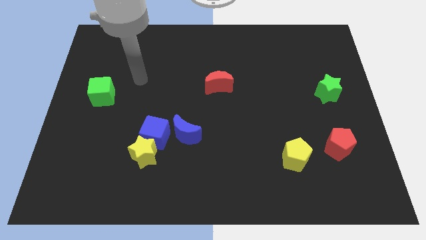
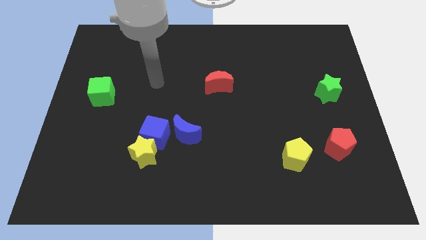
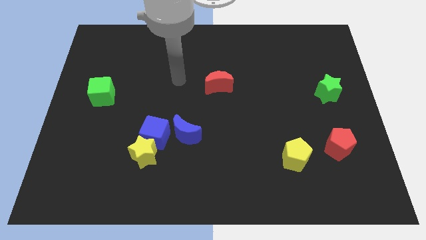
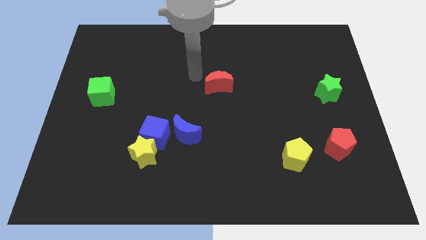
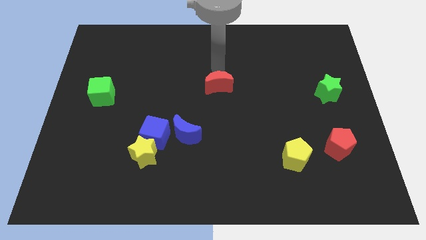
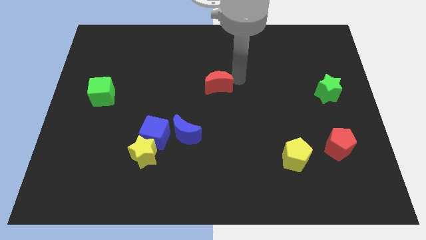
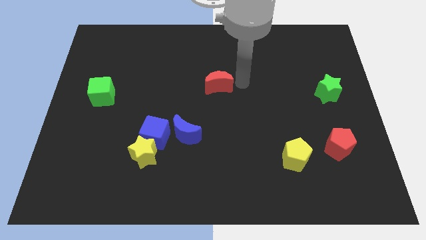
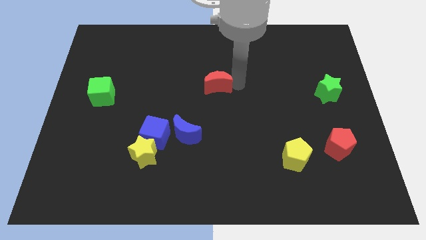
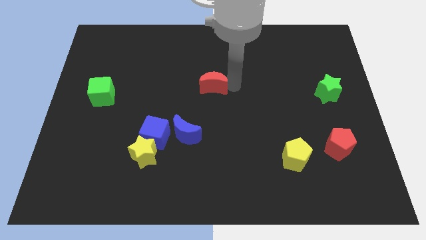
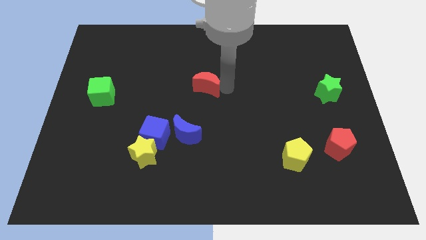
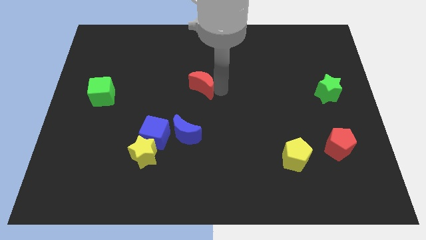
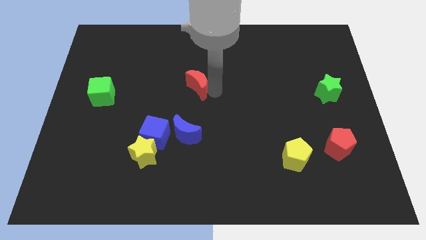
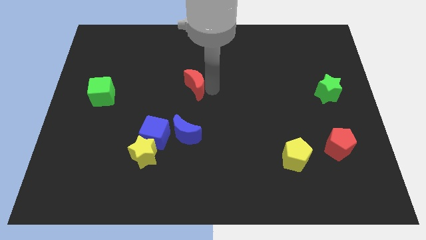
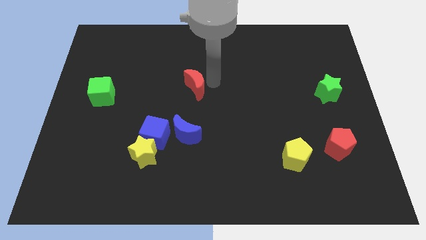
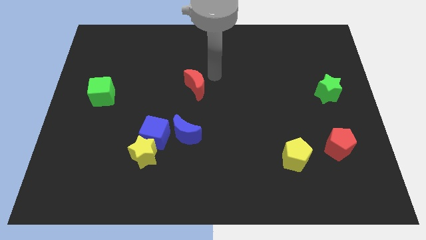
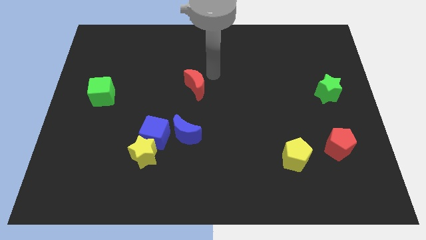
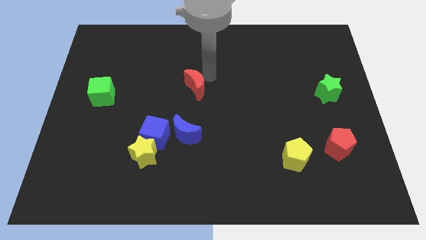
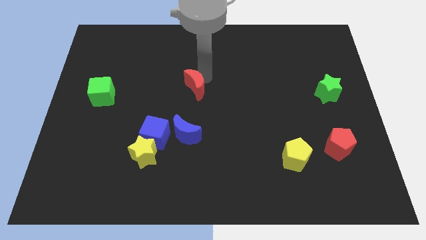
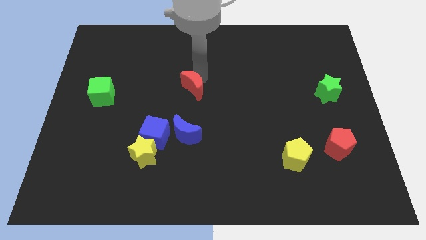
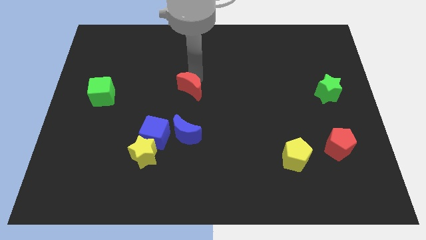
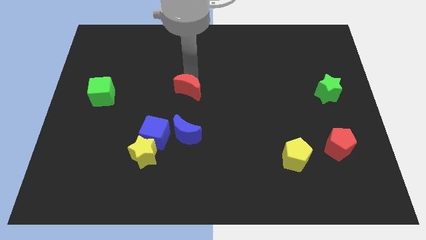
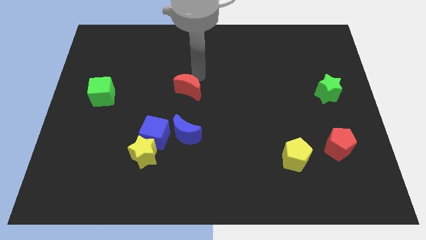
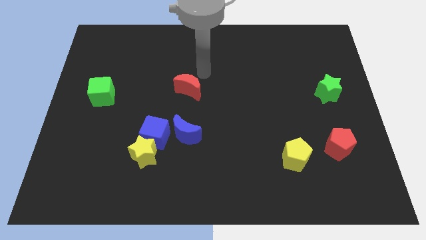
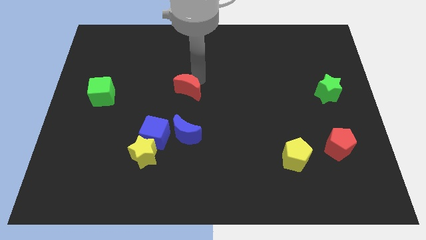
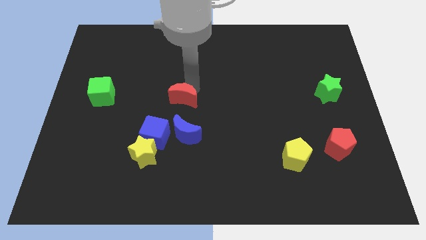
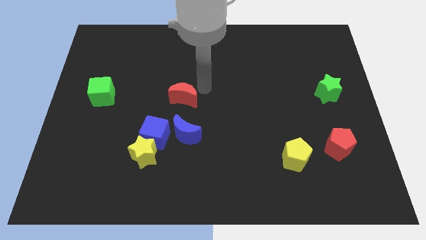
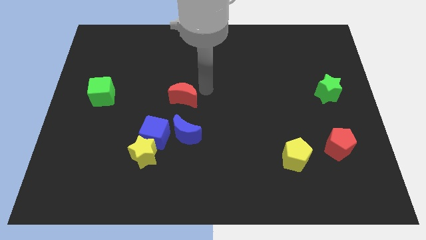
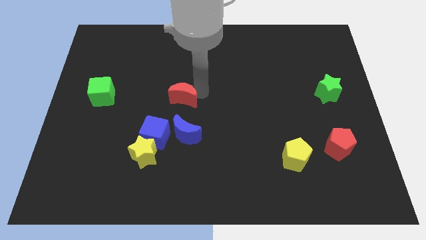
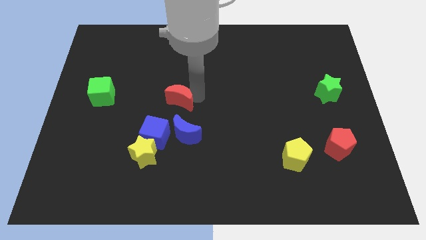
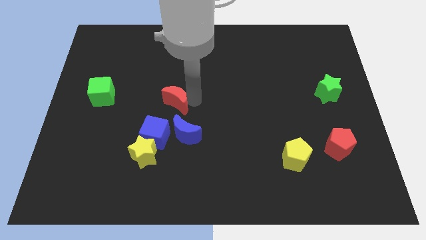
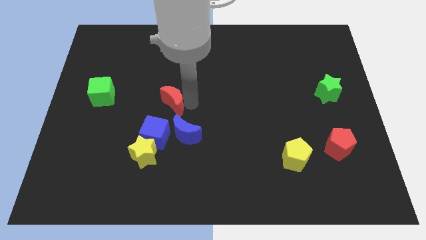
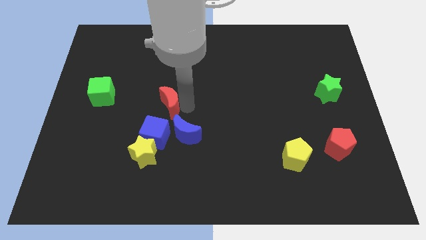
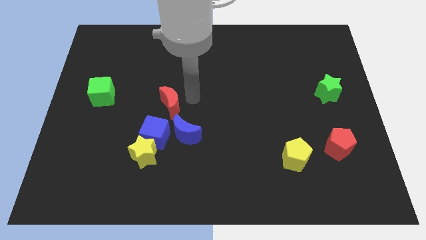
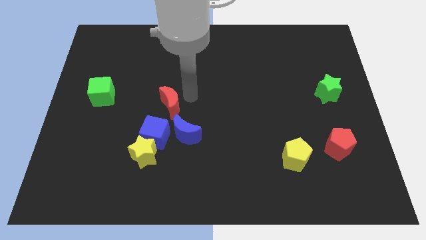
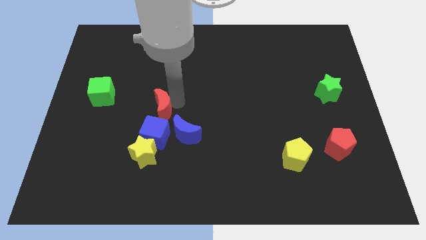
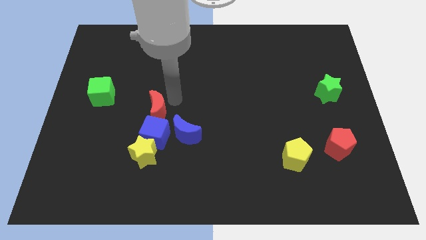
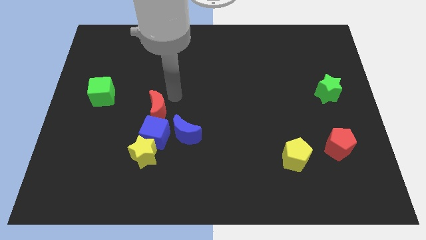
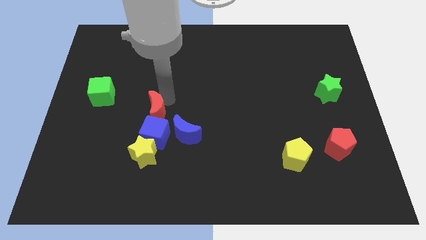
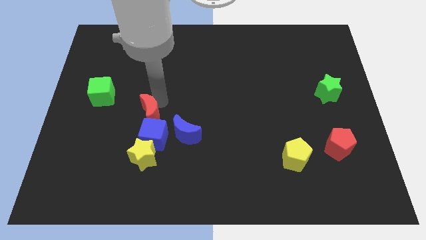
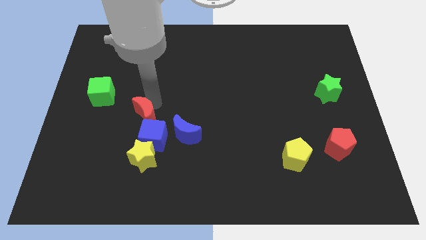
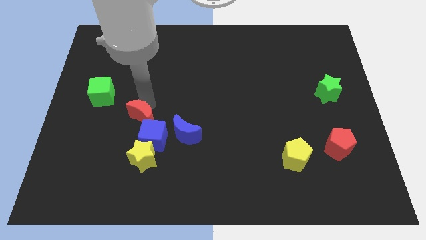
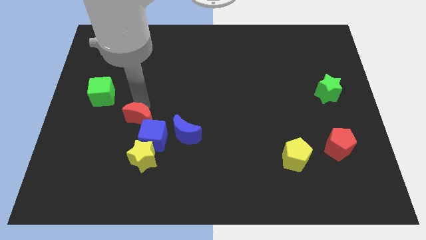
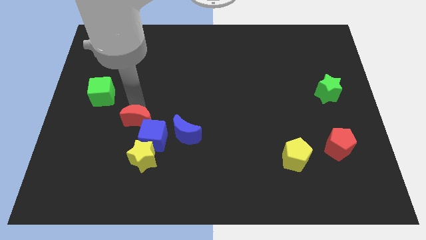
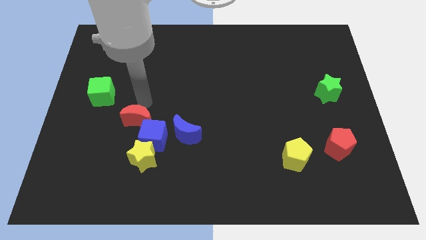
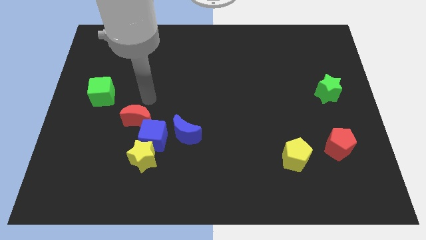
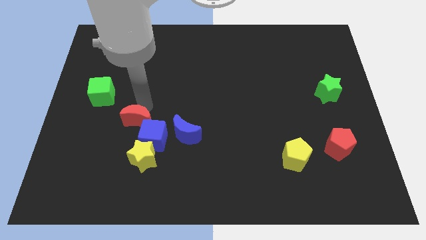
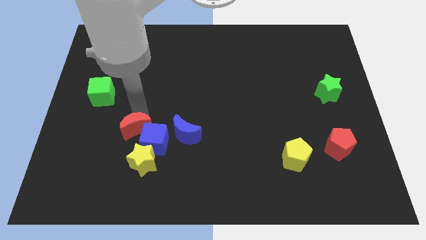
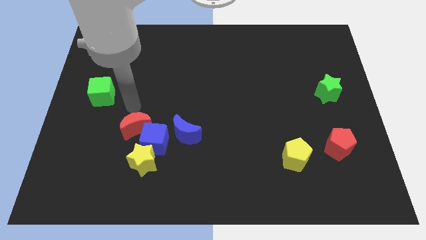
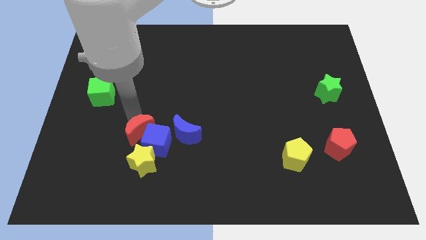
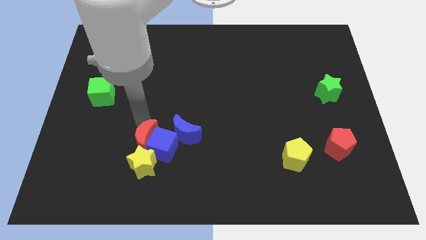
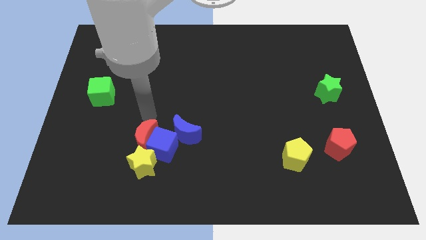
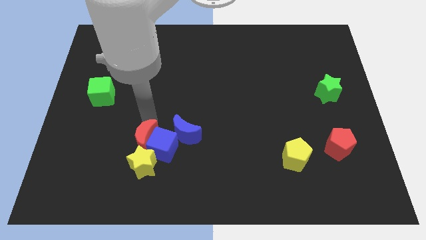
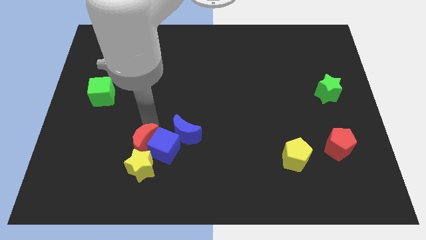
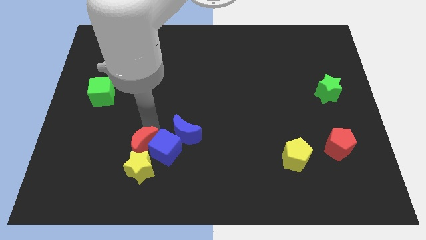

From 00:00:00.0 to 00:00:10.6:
put the red moon close to the yellow star

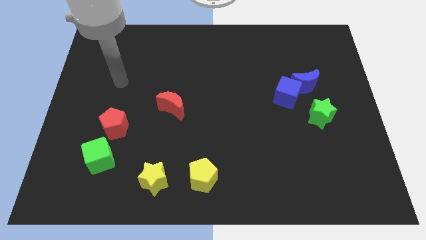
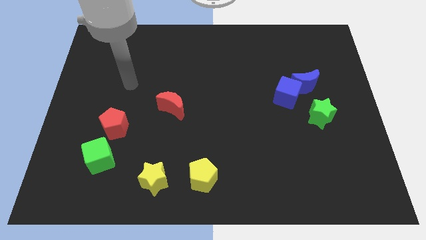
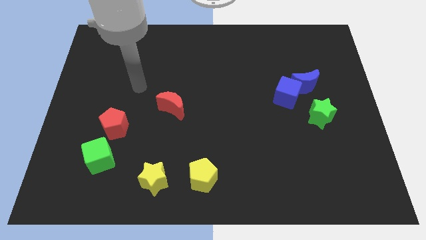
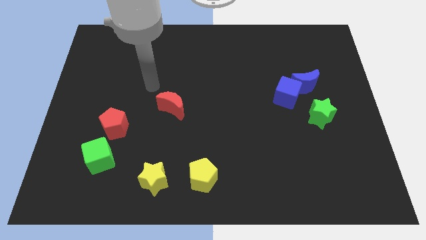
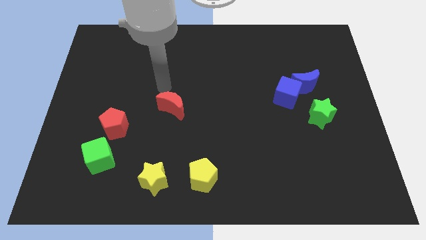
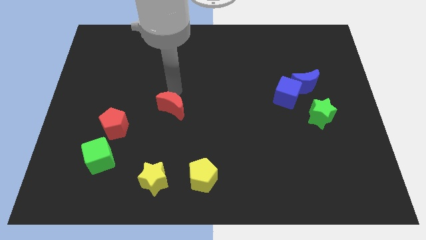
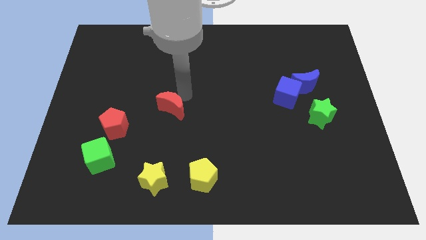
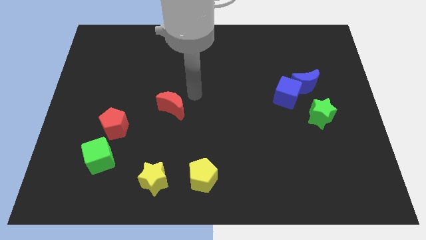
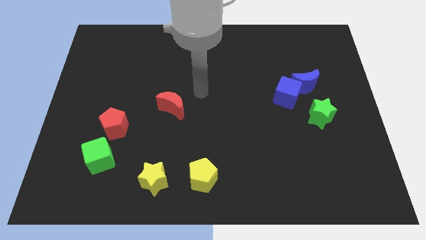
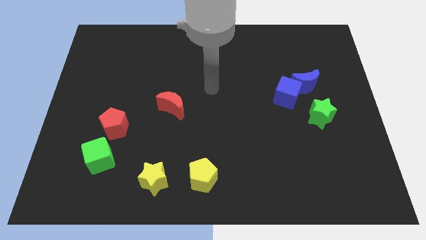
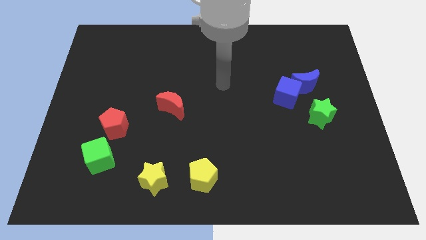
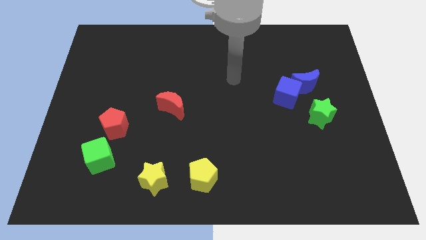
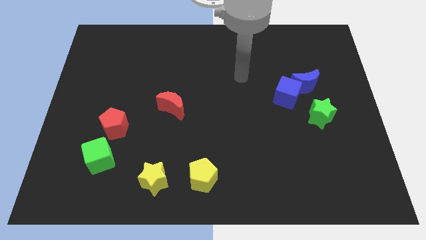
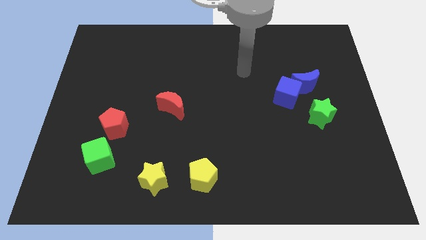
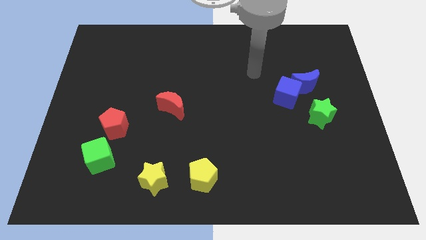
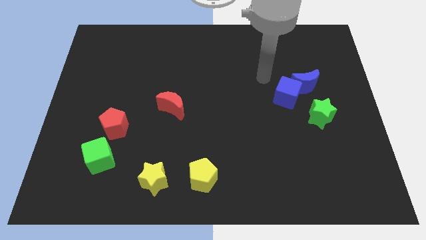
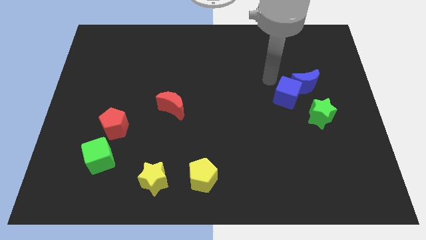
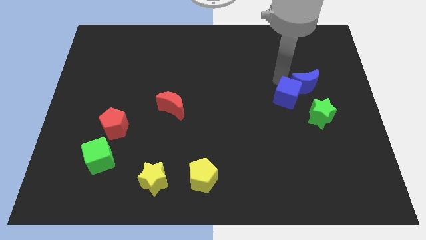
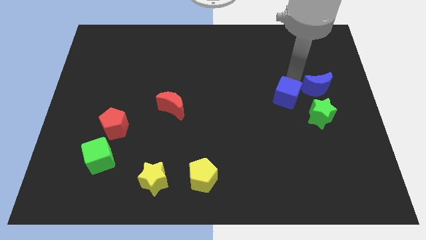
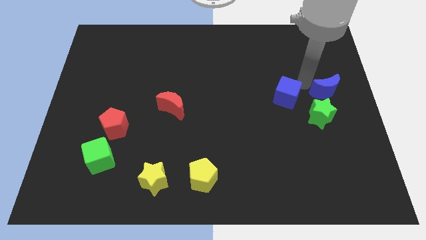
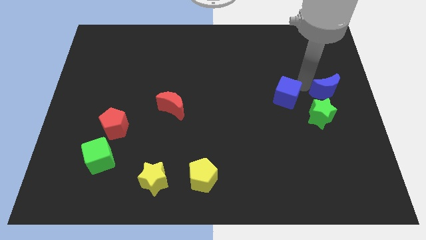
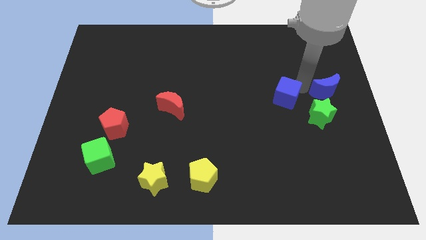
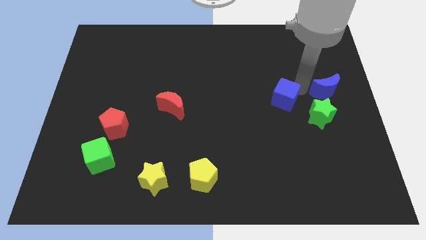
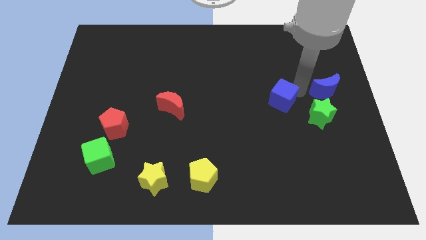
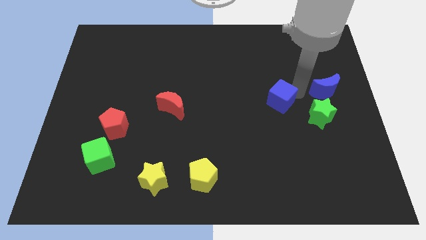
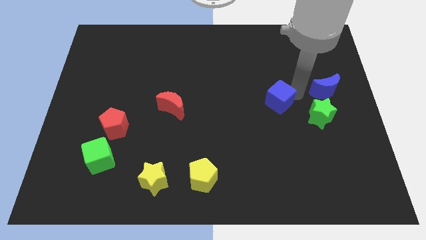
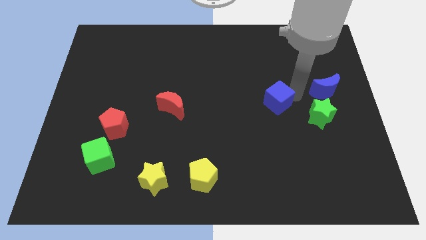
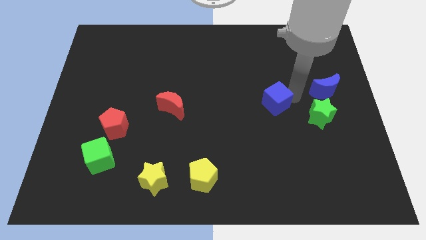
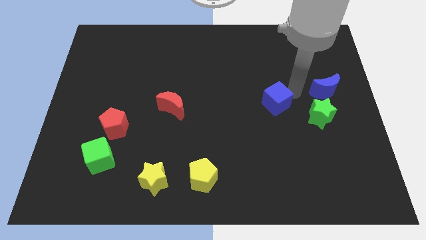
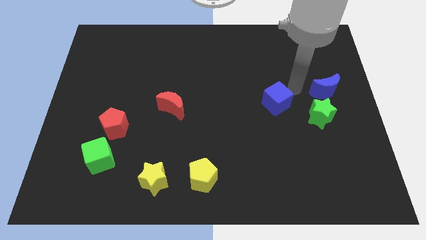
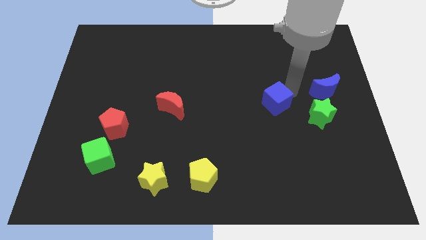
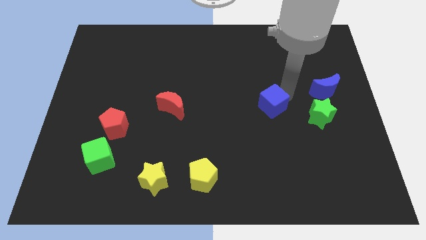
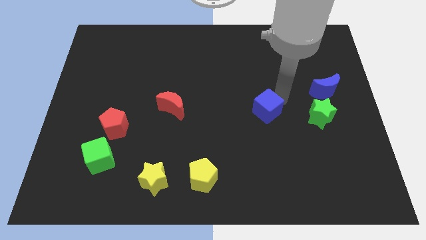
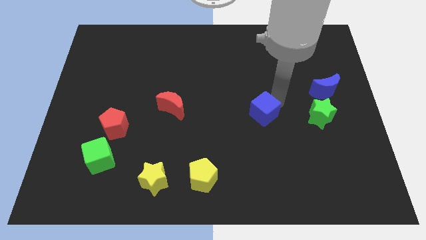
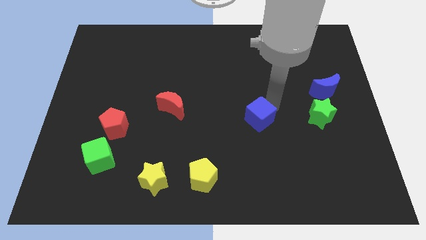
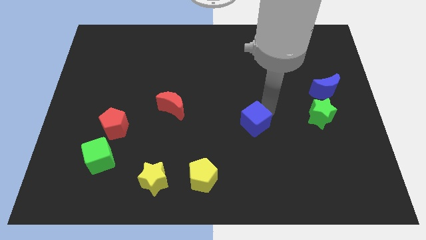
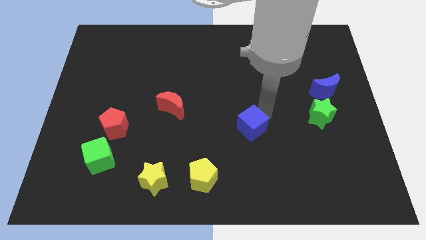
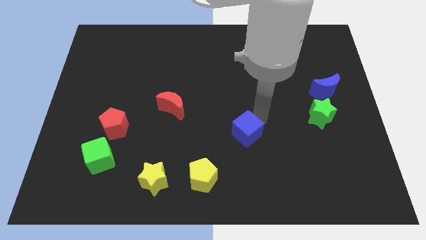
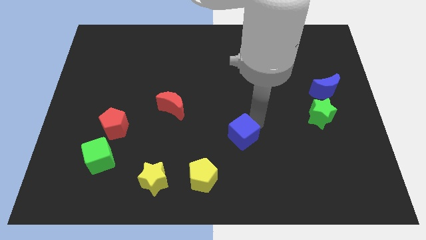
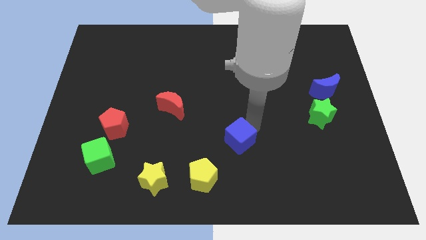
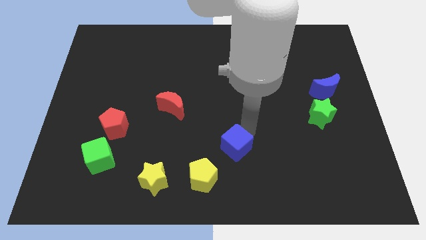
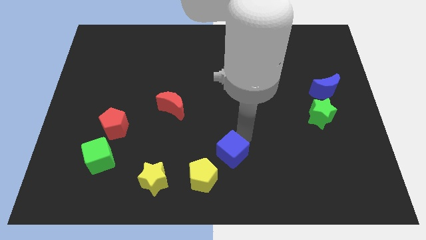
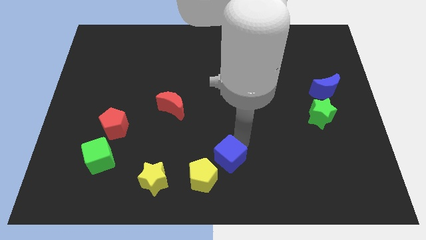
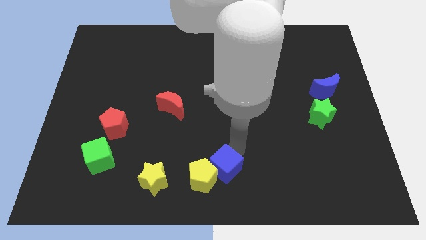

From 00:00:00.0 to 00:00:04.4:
push the blue cube towards the yellow pentagon
